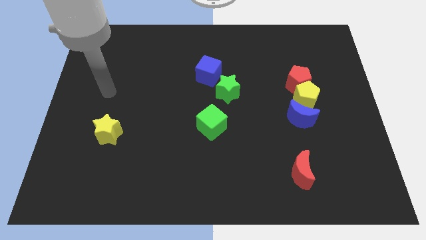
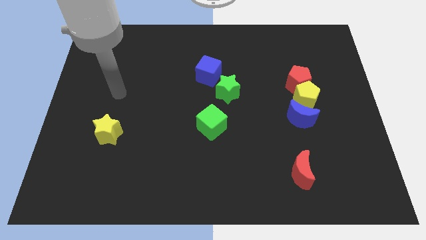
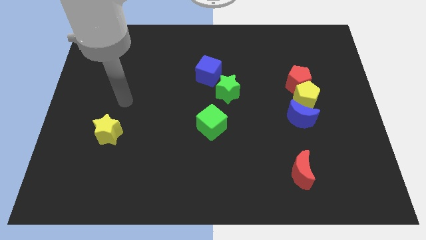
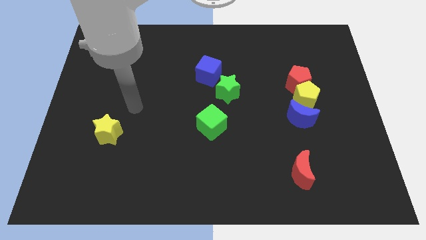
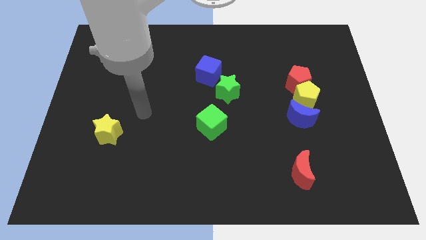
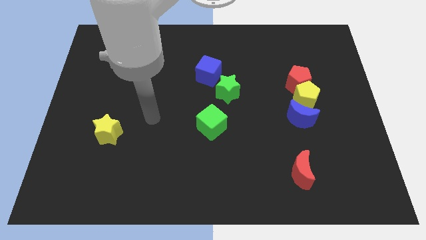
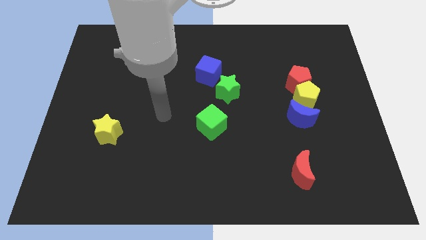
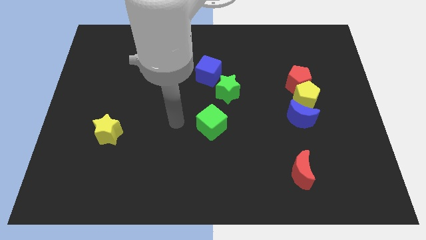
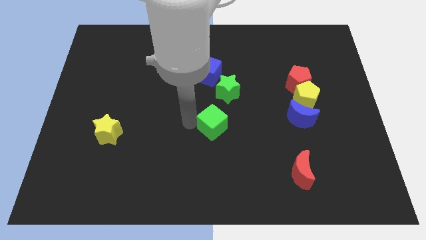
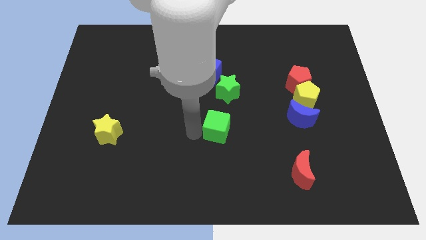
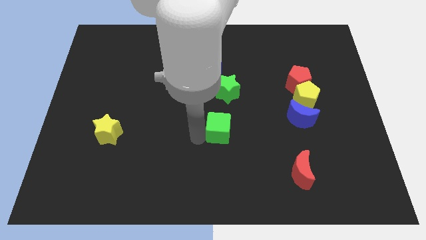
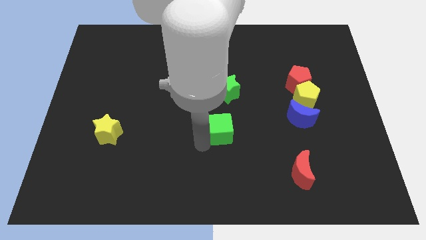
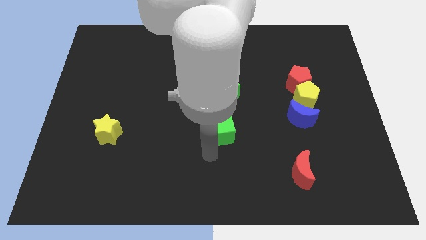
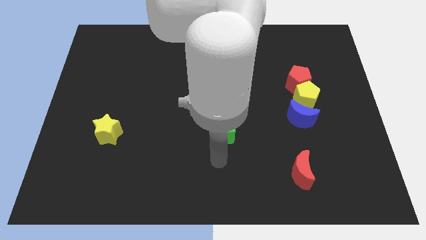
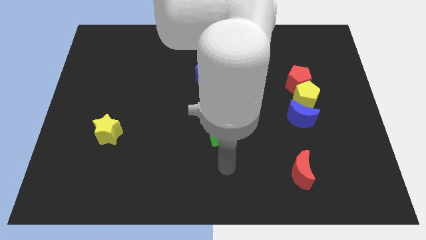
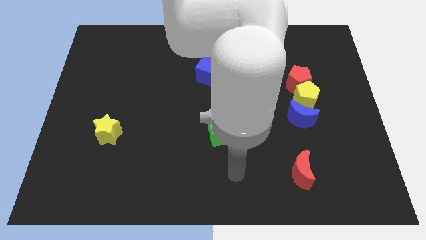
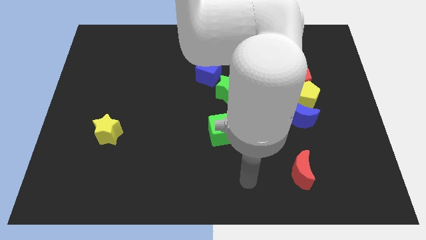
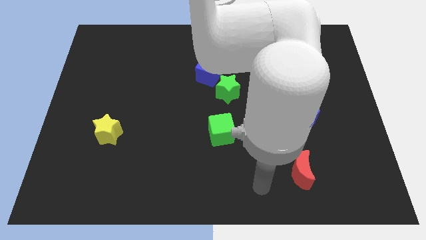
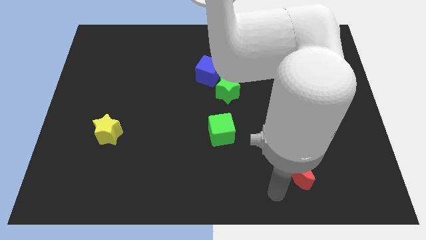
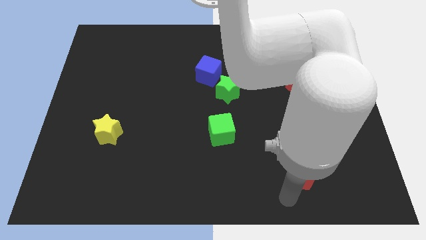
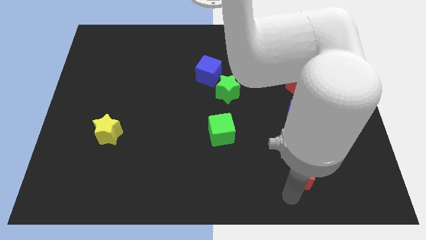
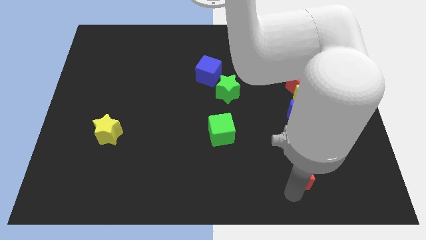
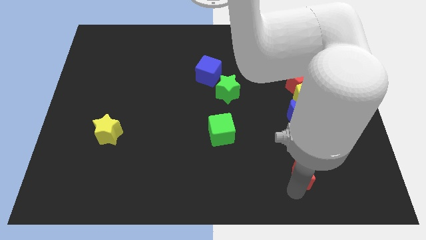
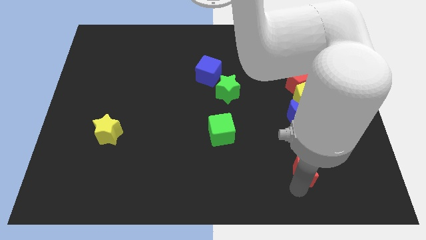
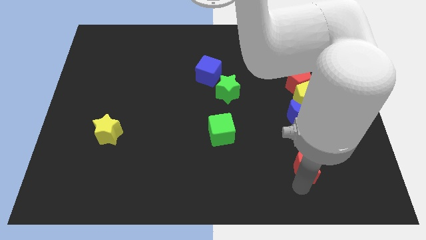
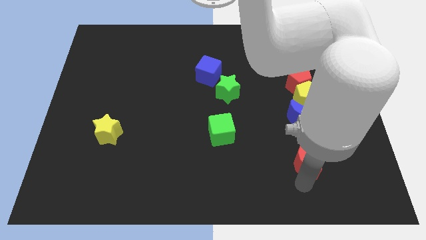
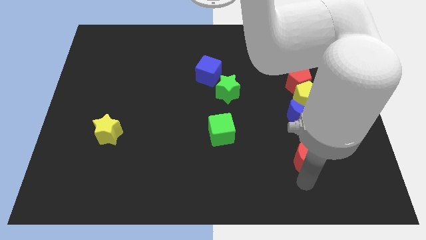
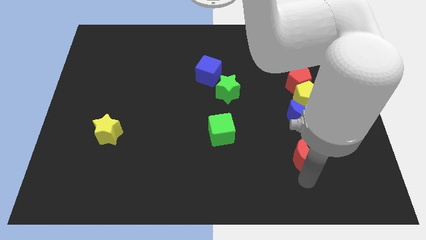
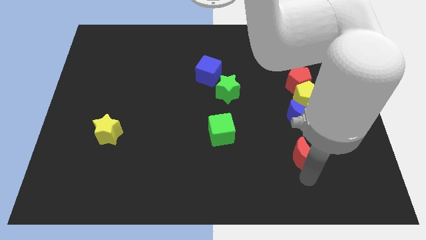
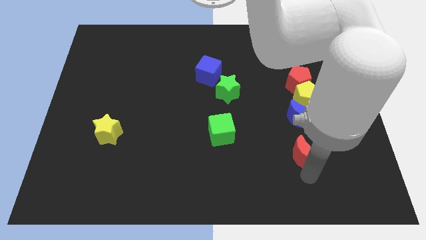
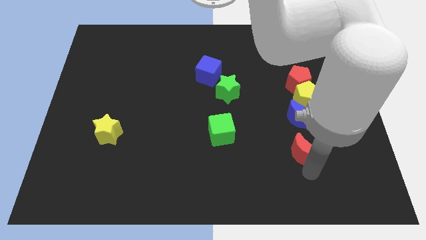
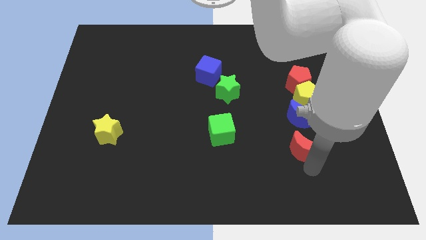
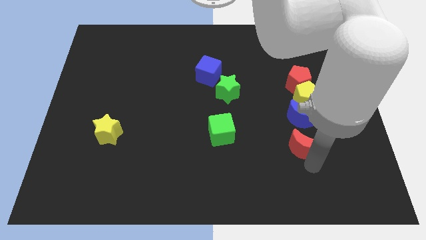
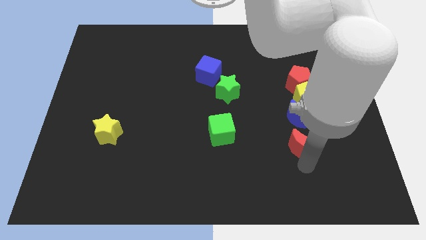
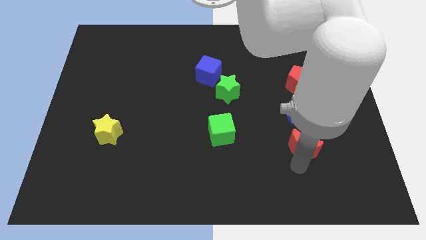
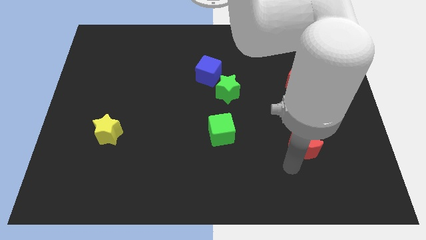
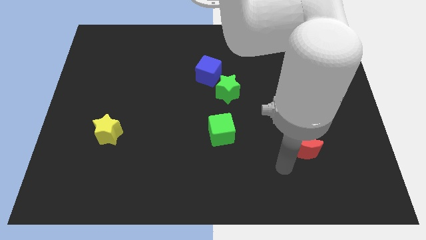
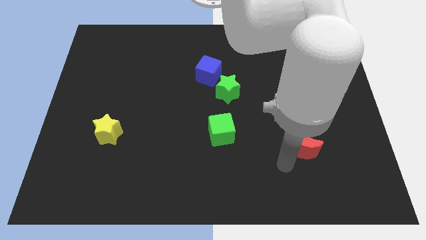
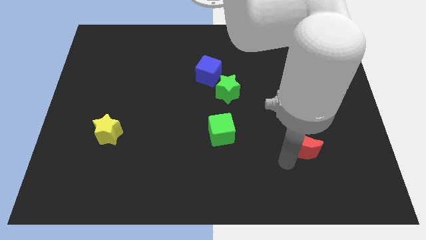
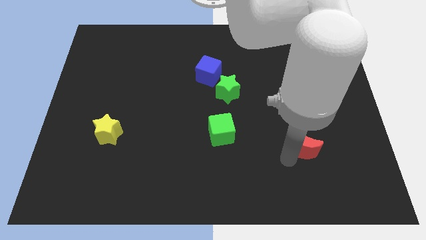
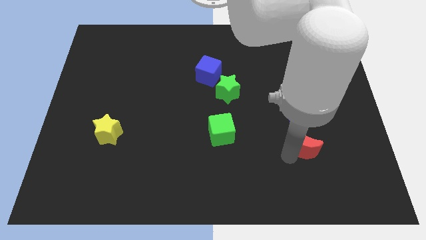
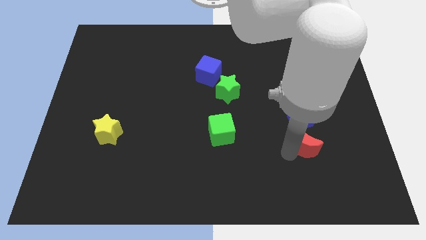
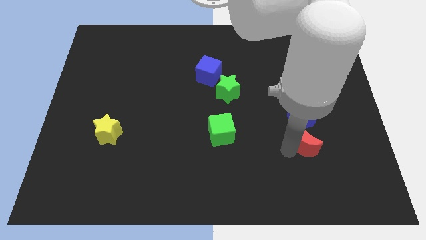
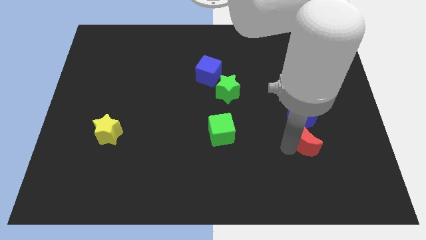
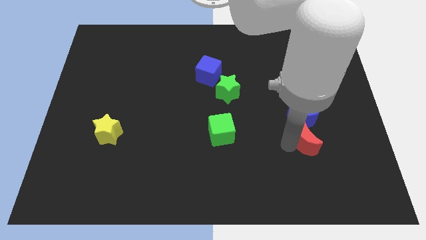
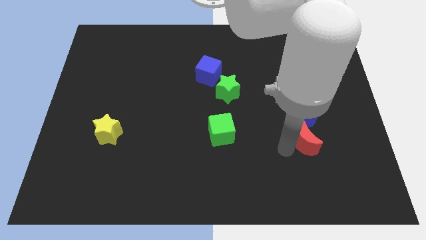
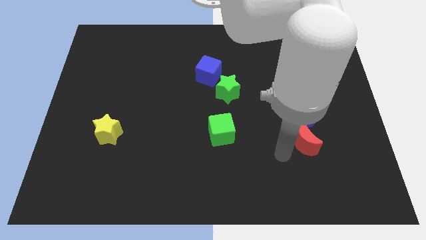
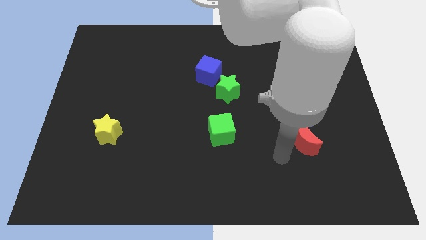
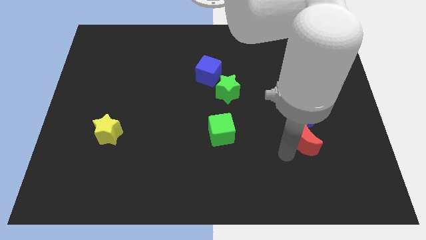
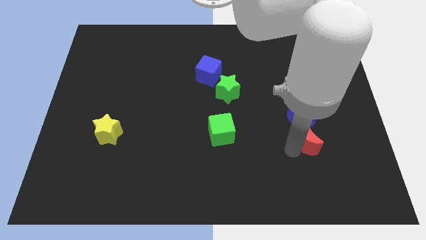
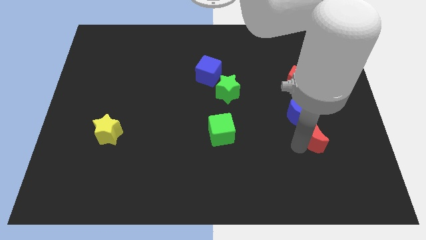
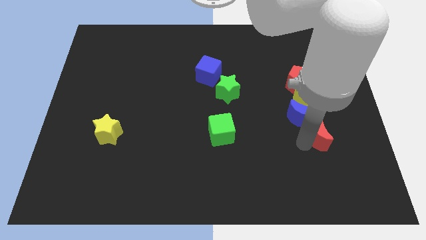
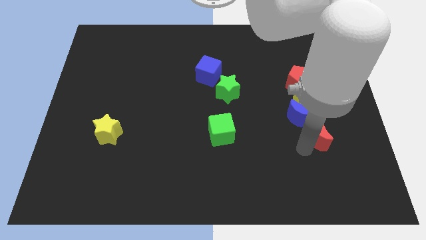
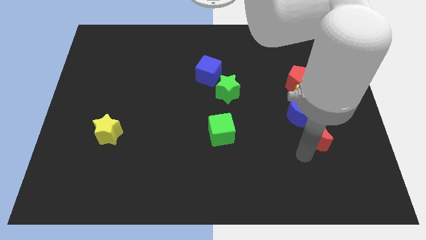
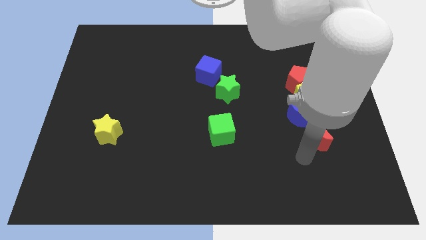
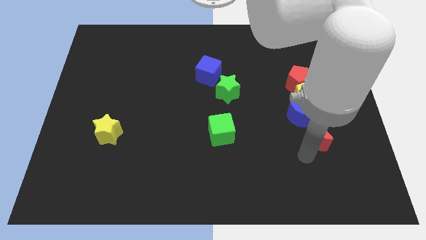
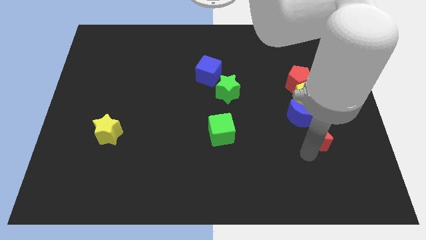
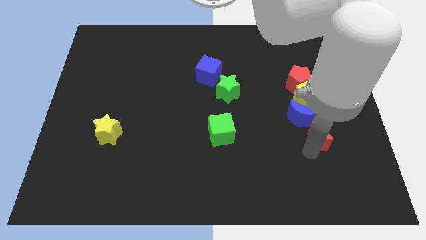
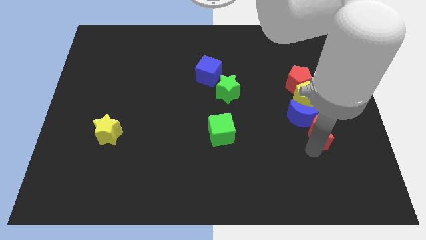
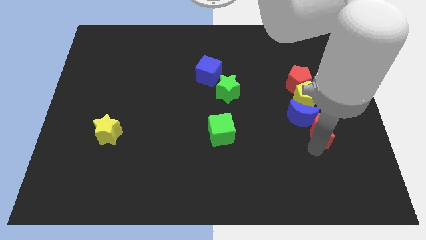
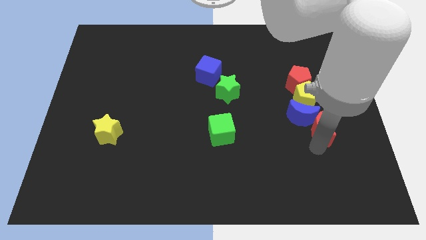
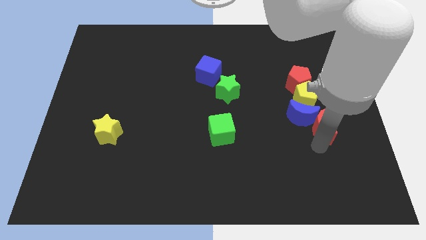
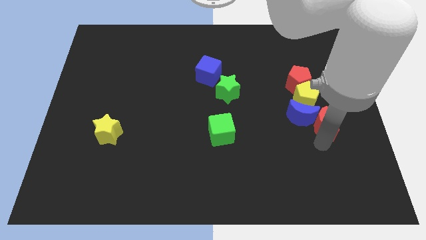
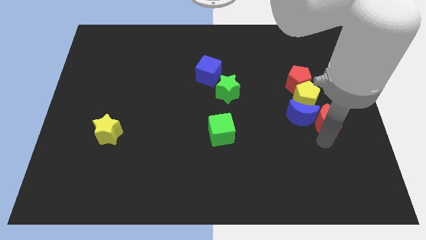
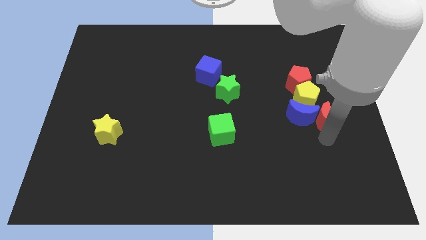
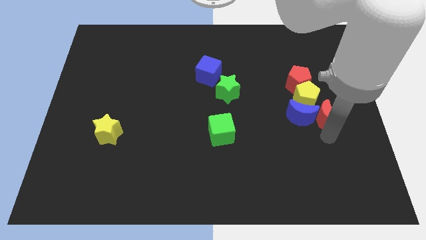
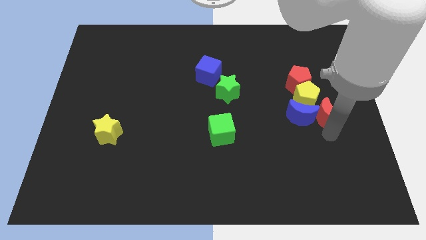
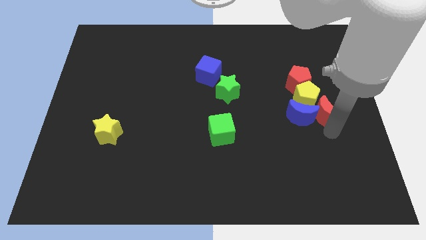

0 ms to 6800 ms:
put the red moon diagonally down and to the right of the red pentagon
